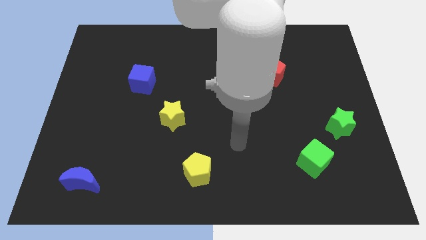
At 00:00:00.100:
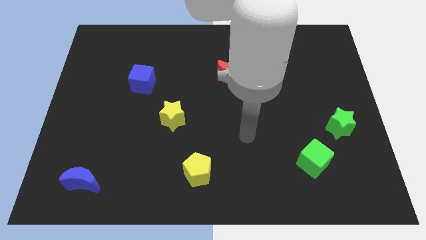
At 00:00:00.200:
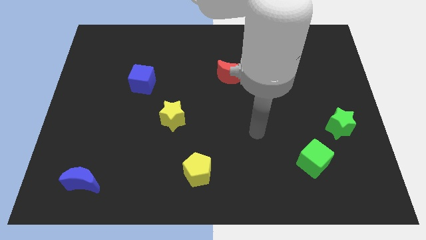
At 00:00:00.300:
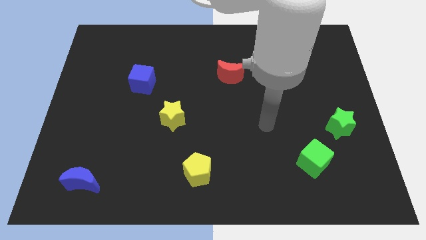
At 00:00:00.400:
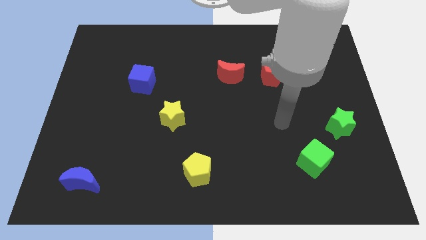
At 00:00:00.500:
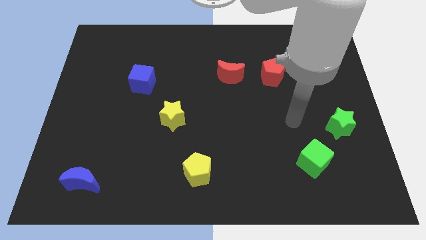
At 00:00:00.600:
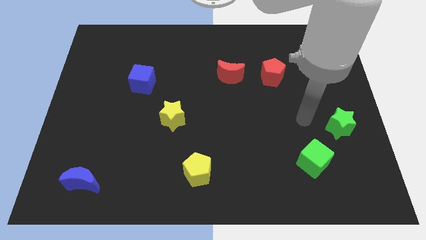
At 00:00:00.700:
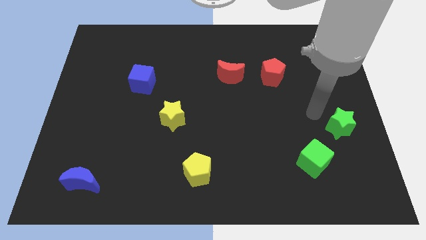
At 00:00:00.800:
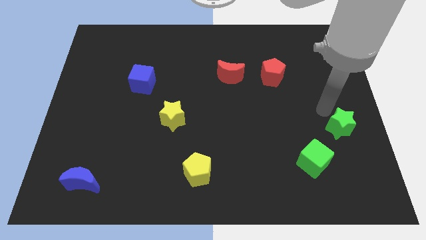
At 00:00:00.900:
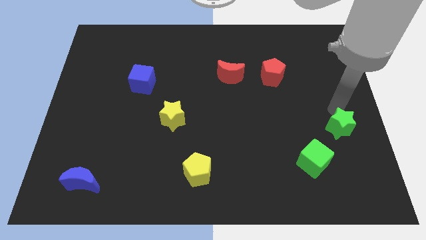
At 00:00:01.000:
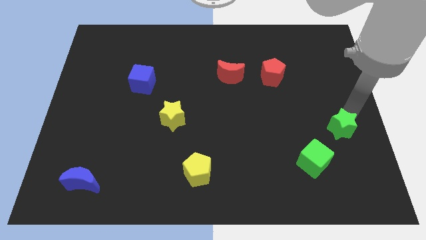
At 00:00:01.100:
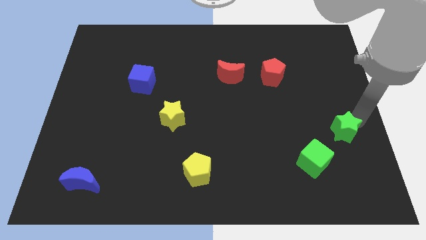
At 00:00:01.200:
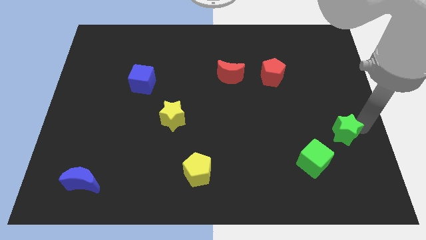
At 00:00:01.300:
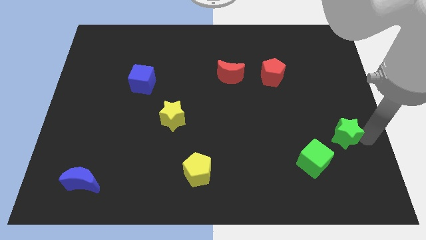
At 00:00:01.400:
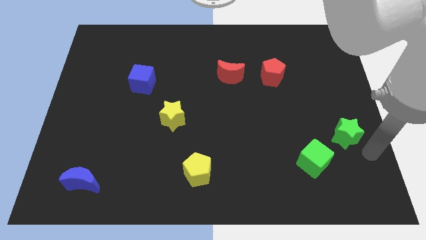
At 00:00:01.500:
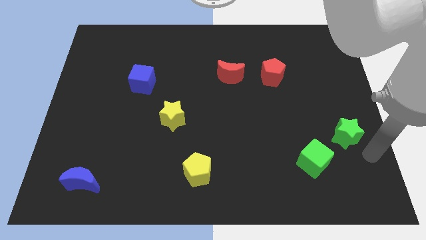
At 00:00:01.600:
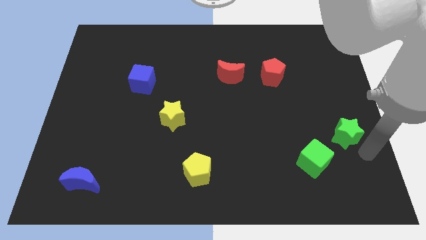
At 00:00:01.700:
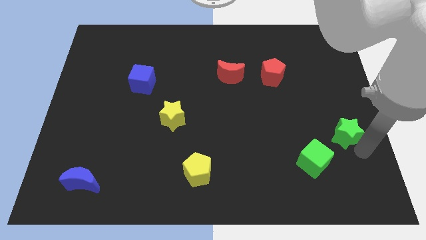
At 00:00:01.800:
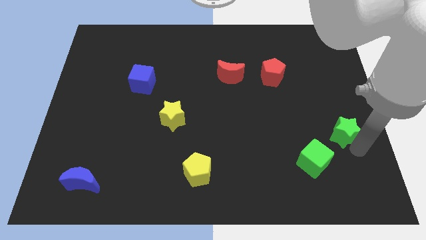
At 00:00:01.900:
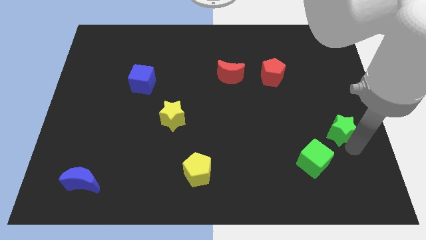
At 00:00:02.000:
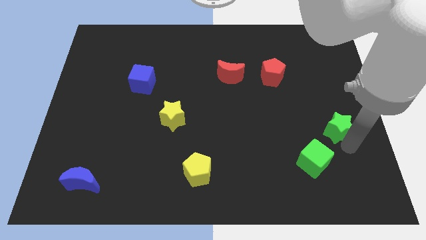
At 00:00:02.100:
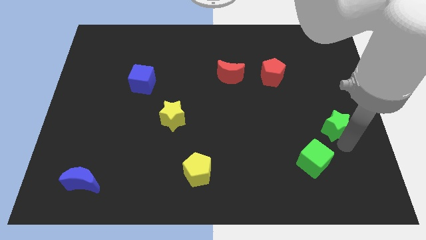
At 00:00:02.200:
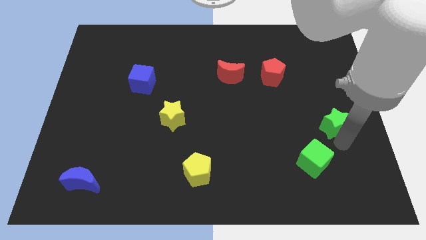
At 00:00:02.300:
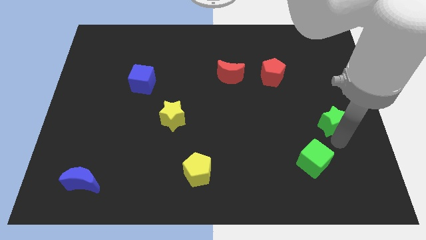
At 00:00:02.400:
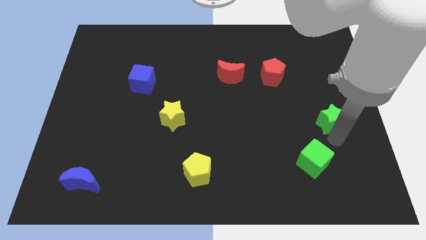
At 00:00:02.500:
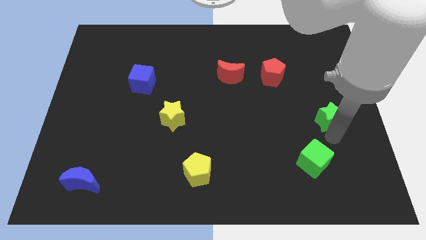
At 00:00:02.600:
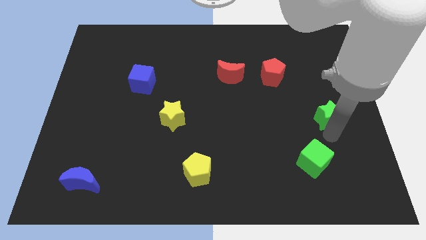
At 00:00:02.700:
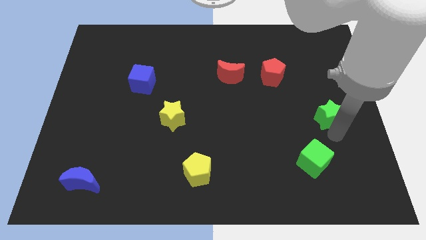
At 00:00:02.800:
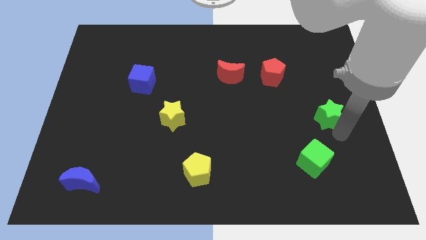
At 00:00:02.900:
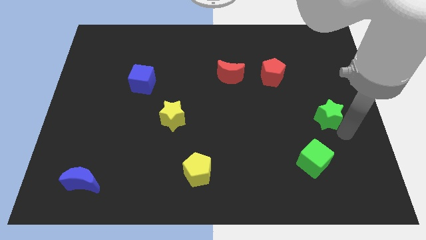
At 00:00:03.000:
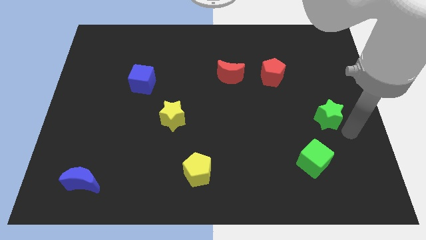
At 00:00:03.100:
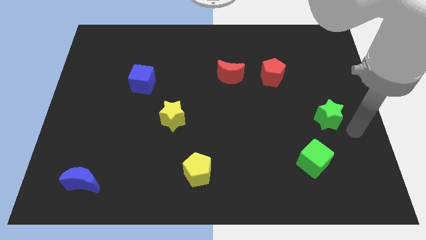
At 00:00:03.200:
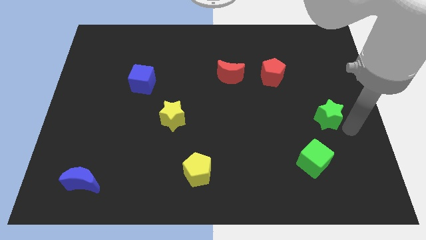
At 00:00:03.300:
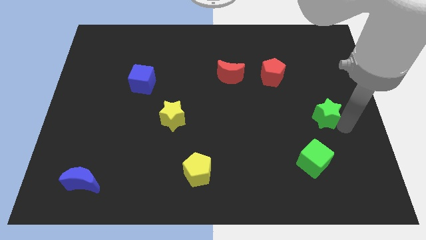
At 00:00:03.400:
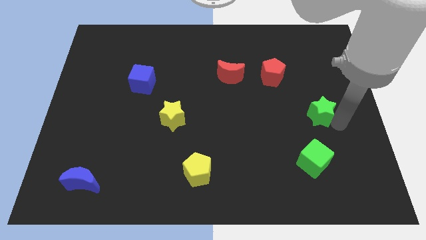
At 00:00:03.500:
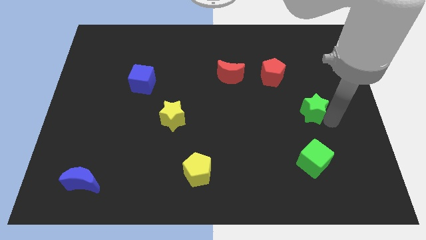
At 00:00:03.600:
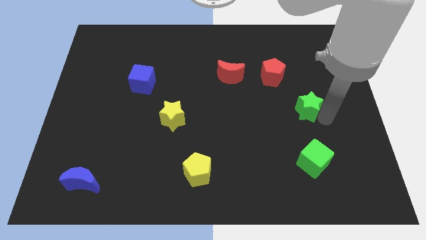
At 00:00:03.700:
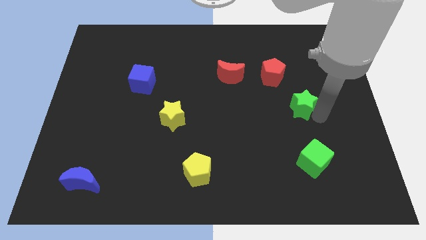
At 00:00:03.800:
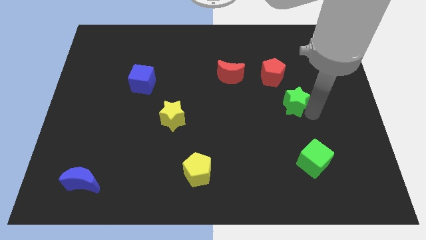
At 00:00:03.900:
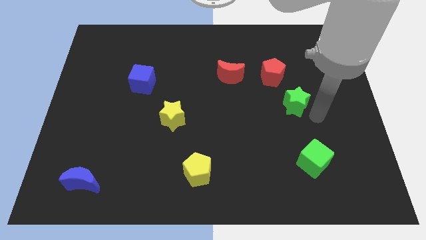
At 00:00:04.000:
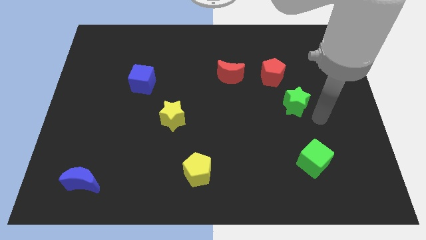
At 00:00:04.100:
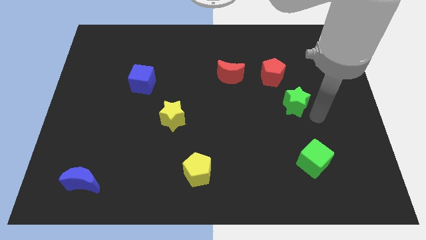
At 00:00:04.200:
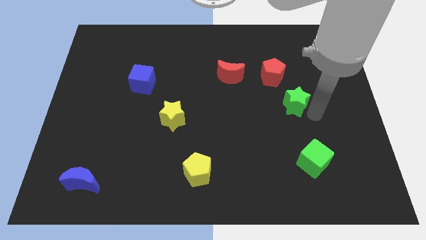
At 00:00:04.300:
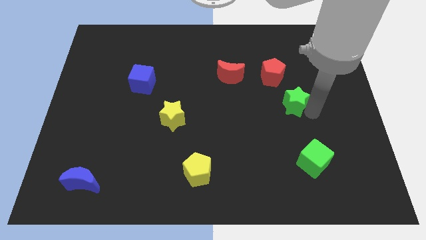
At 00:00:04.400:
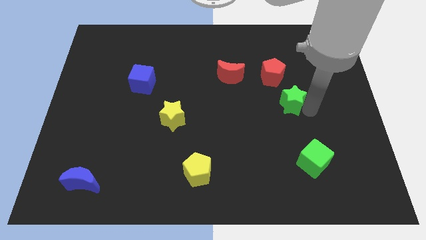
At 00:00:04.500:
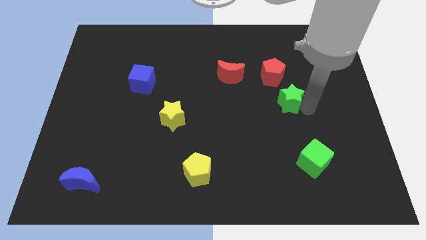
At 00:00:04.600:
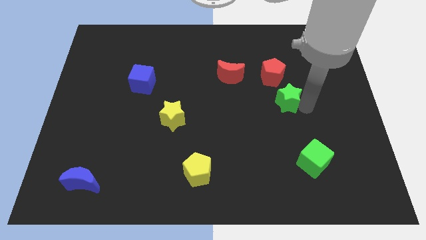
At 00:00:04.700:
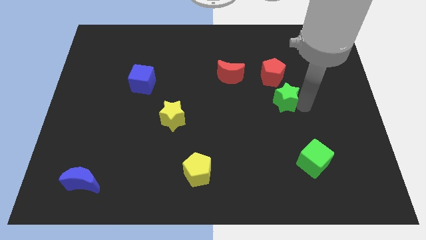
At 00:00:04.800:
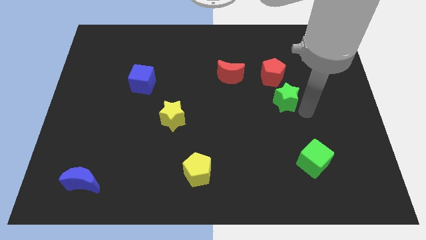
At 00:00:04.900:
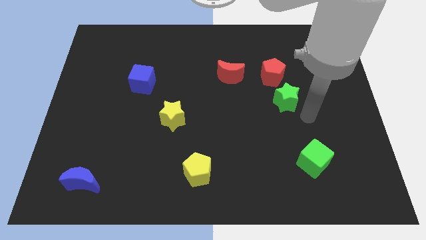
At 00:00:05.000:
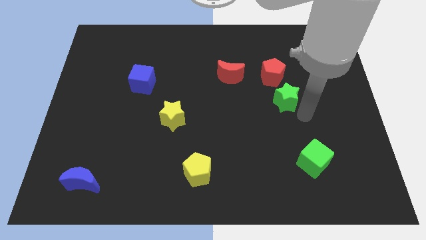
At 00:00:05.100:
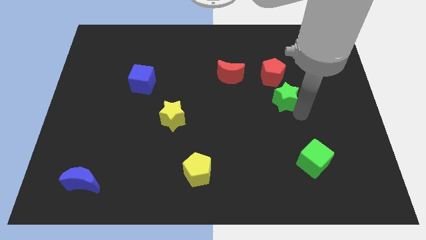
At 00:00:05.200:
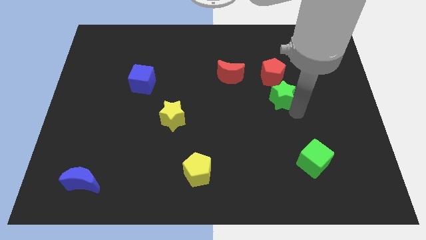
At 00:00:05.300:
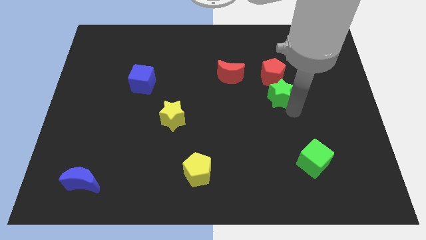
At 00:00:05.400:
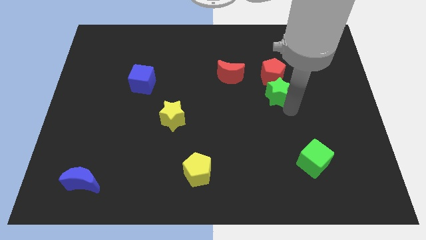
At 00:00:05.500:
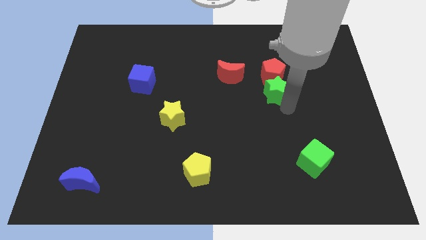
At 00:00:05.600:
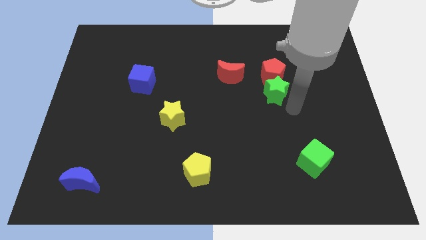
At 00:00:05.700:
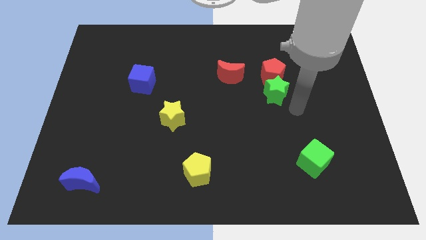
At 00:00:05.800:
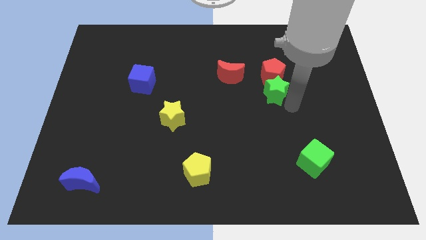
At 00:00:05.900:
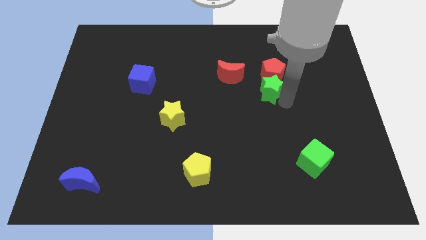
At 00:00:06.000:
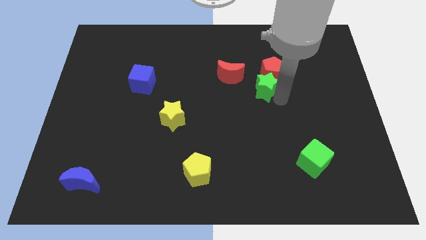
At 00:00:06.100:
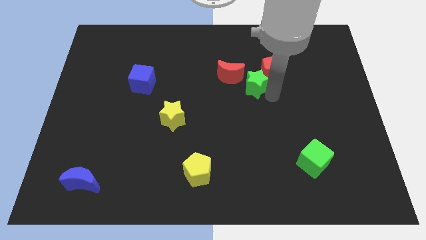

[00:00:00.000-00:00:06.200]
push the green star diagonally up and left

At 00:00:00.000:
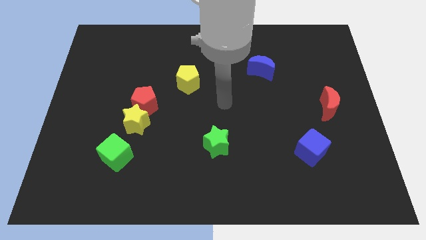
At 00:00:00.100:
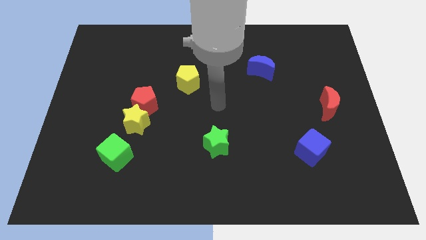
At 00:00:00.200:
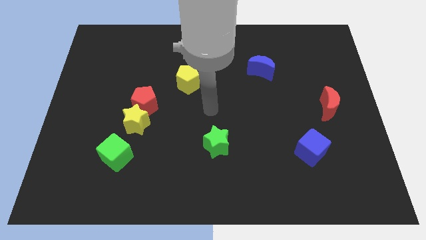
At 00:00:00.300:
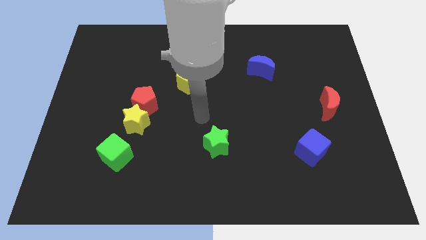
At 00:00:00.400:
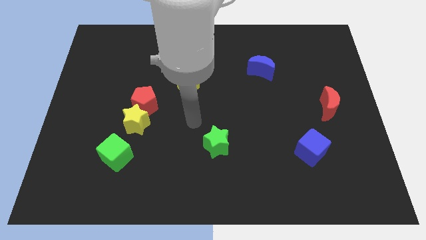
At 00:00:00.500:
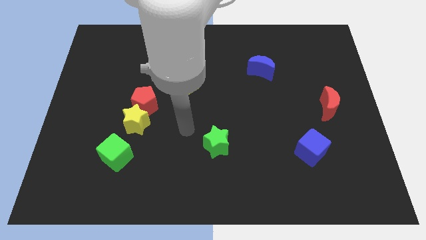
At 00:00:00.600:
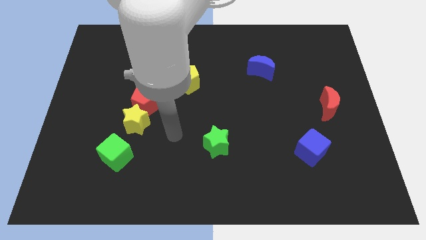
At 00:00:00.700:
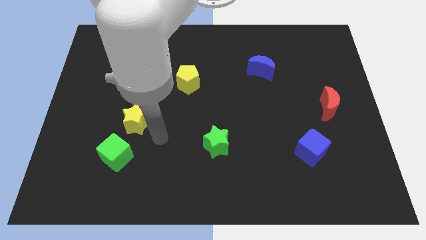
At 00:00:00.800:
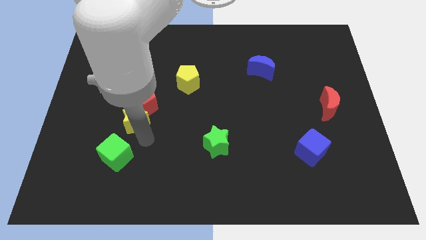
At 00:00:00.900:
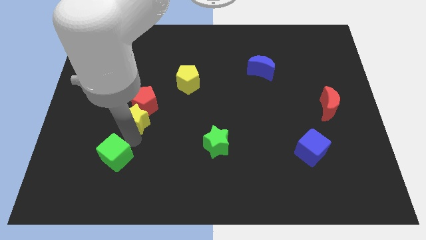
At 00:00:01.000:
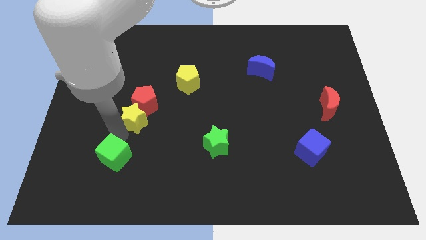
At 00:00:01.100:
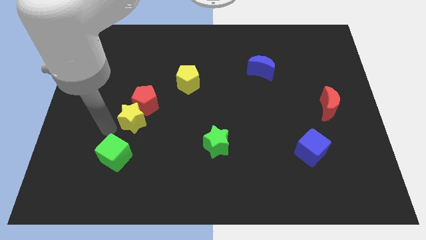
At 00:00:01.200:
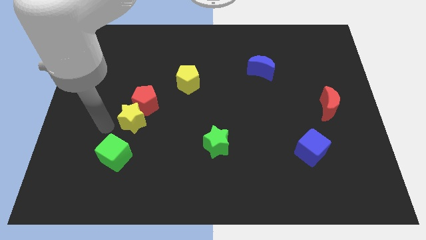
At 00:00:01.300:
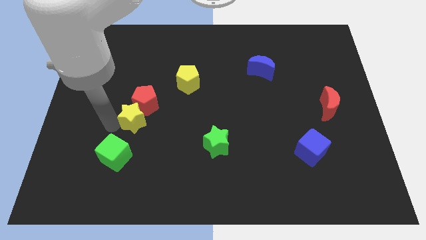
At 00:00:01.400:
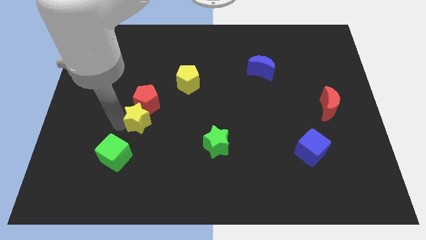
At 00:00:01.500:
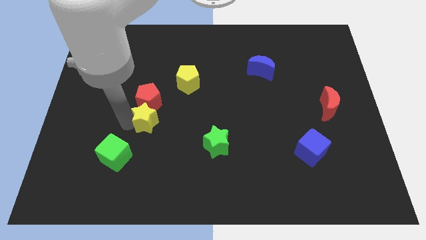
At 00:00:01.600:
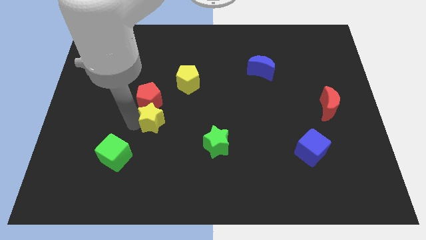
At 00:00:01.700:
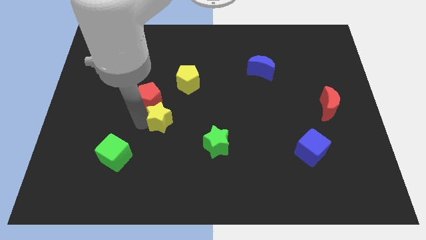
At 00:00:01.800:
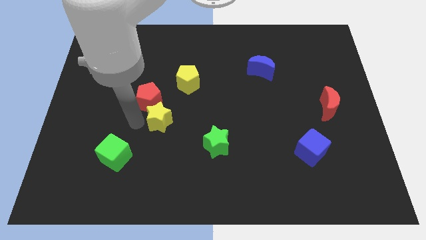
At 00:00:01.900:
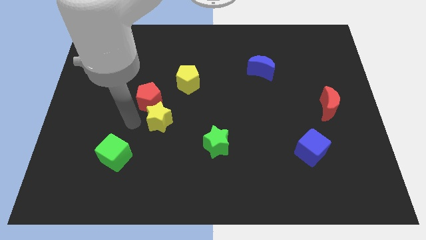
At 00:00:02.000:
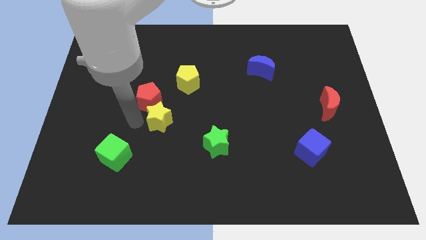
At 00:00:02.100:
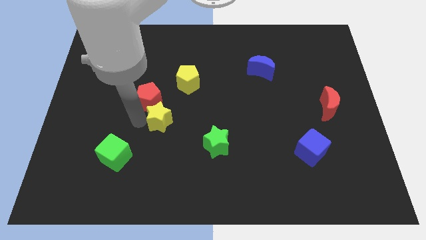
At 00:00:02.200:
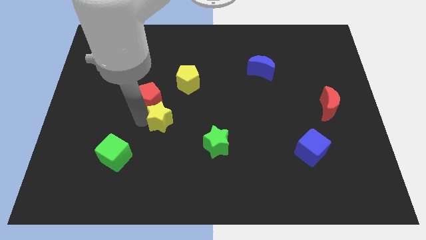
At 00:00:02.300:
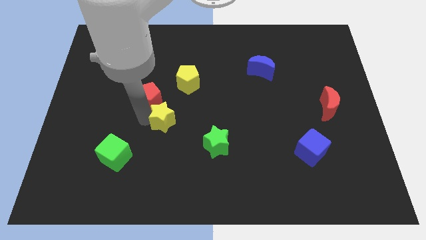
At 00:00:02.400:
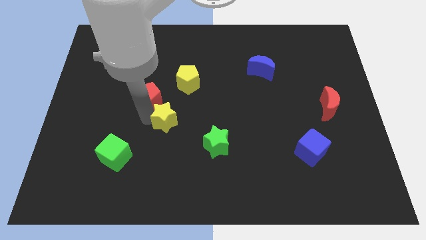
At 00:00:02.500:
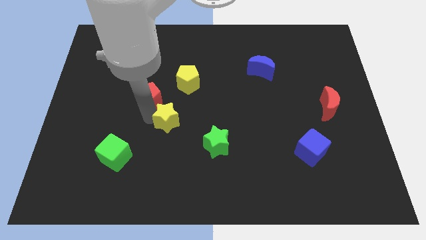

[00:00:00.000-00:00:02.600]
slightly slide the yellow star right
